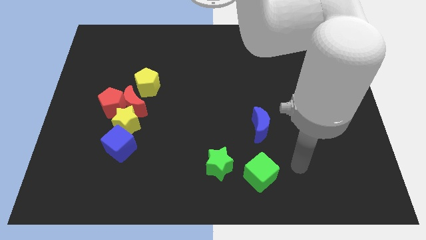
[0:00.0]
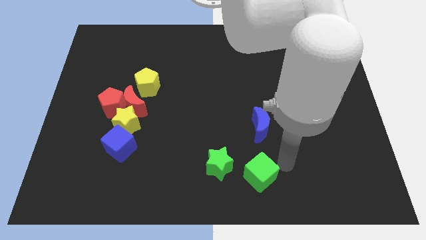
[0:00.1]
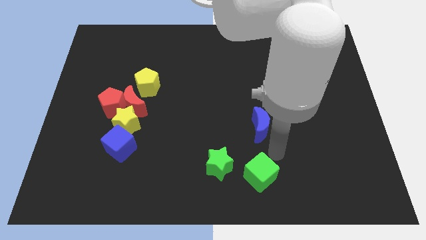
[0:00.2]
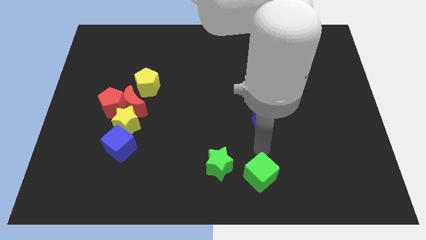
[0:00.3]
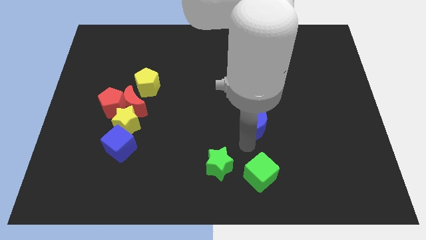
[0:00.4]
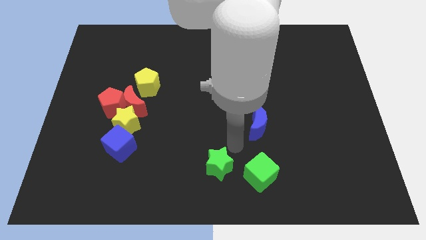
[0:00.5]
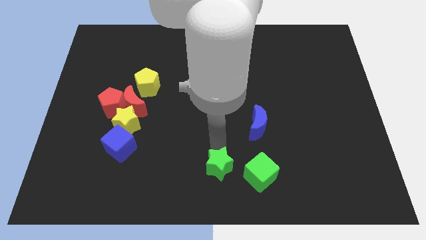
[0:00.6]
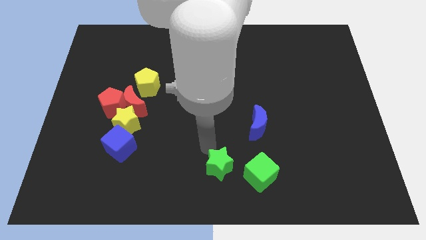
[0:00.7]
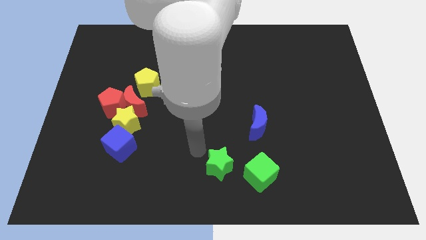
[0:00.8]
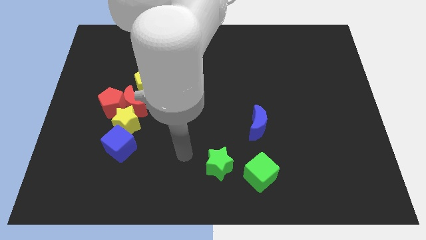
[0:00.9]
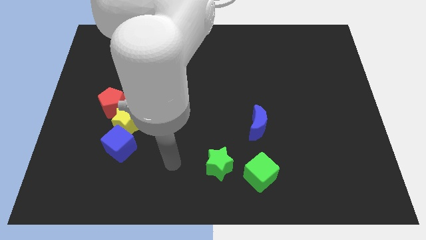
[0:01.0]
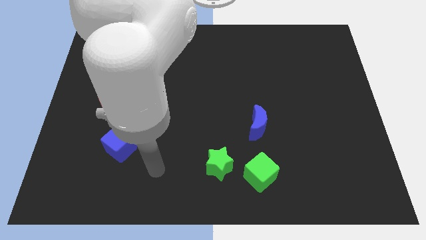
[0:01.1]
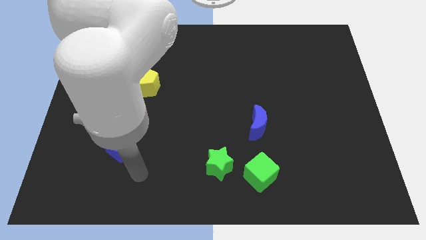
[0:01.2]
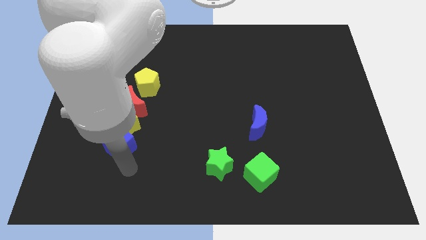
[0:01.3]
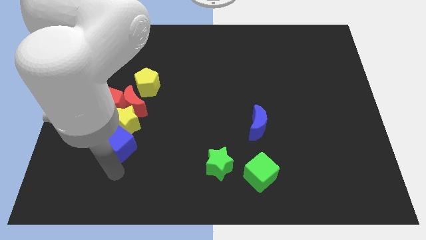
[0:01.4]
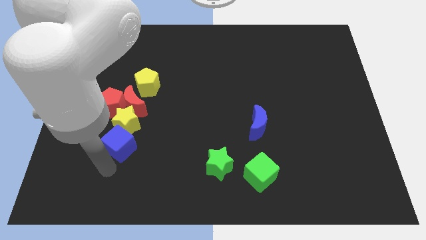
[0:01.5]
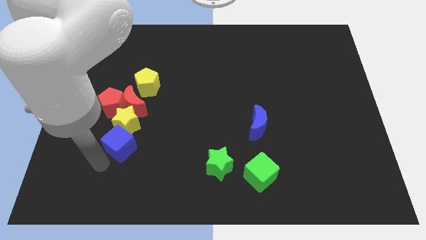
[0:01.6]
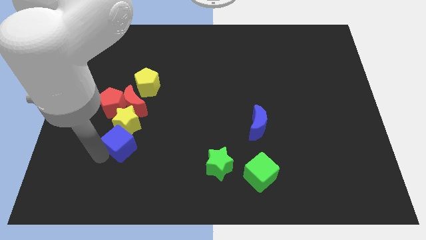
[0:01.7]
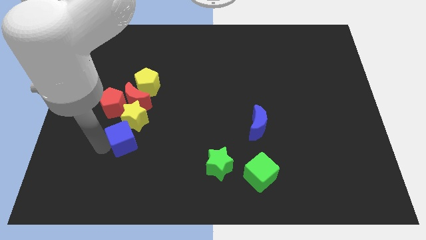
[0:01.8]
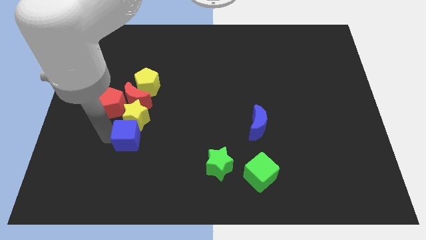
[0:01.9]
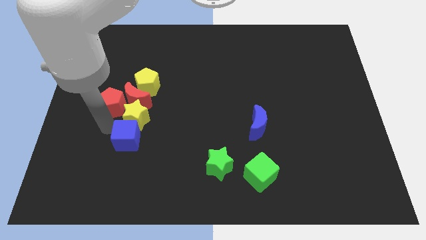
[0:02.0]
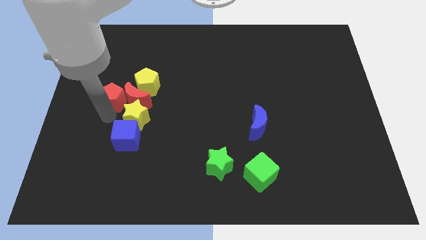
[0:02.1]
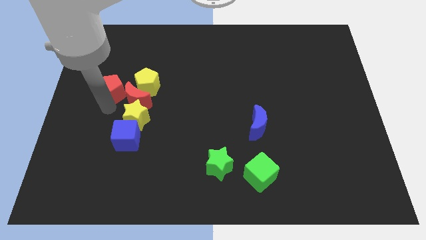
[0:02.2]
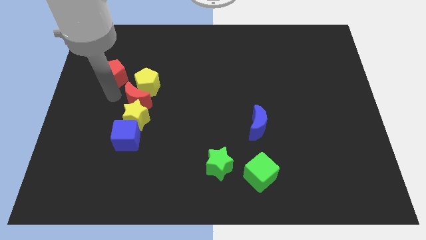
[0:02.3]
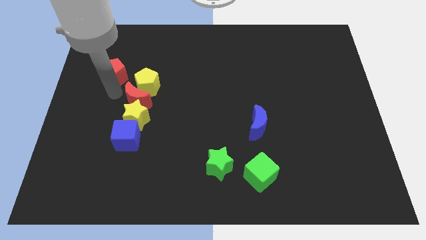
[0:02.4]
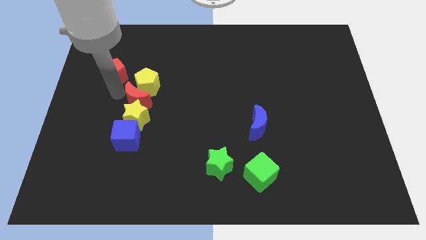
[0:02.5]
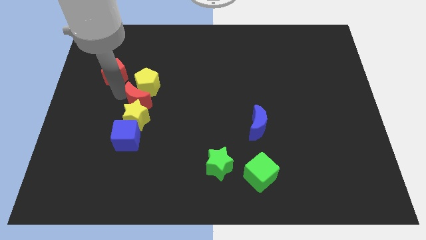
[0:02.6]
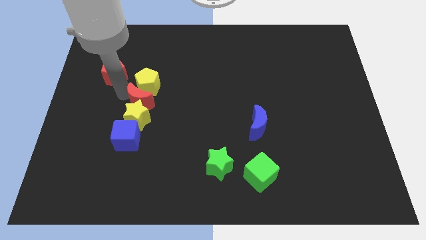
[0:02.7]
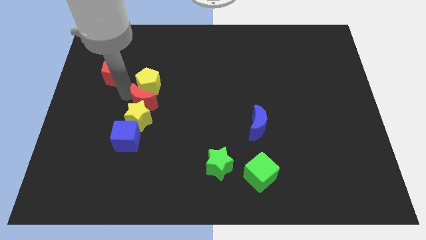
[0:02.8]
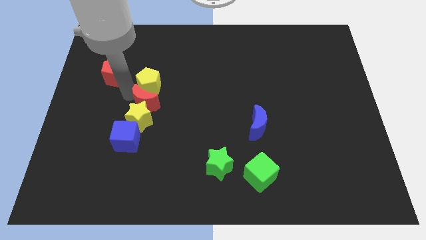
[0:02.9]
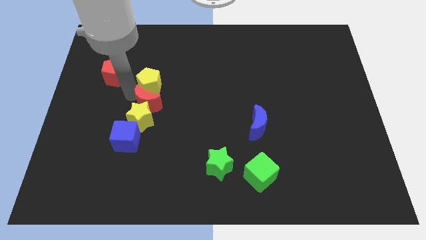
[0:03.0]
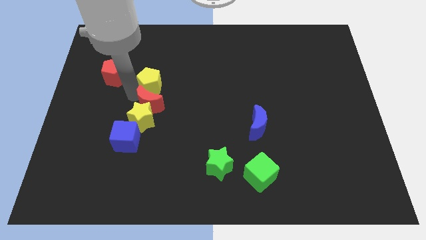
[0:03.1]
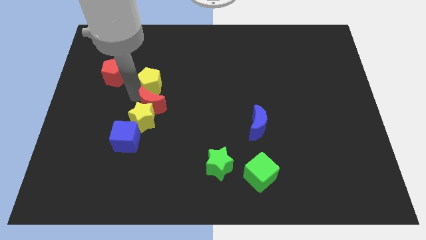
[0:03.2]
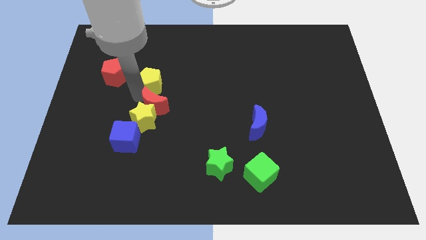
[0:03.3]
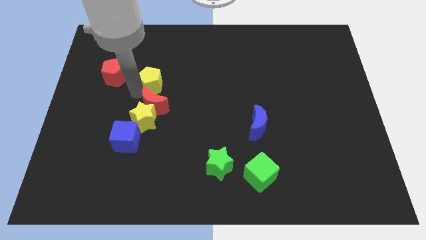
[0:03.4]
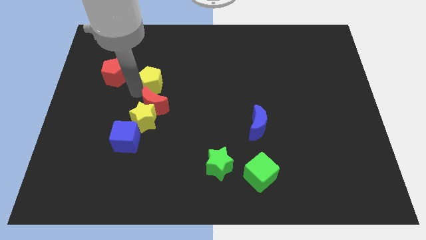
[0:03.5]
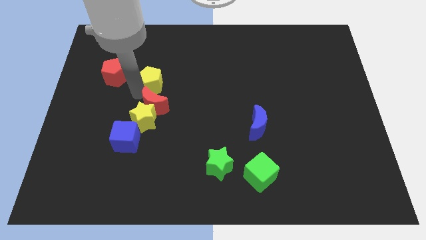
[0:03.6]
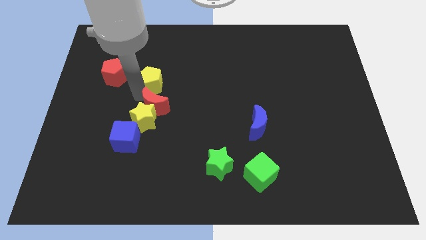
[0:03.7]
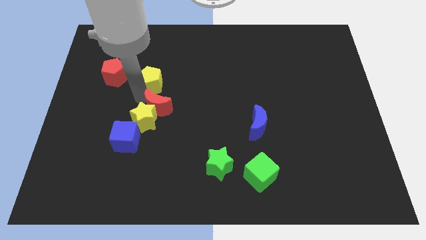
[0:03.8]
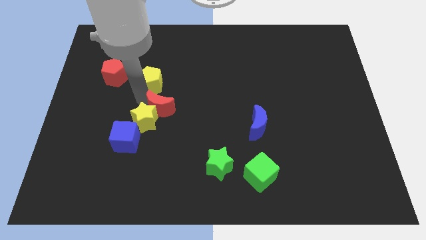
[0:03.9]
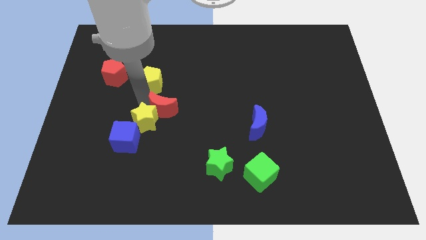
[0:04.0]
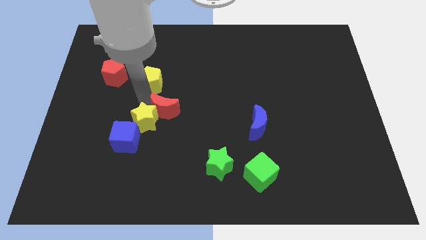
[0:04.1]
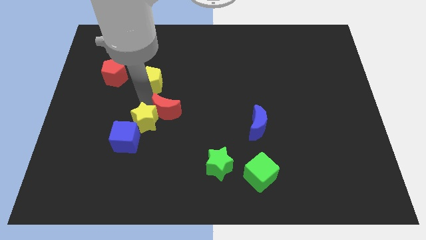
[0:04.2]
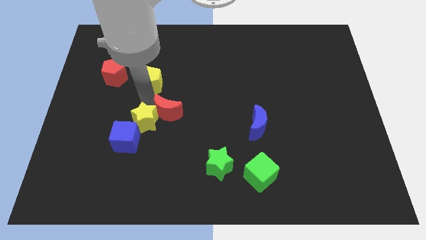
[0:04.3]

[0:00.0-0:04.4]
move the red moon away from the red pentagon, yellow star, and yellow pentagon

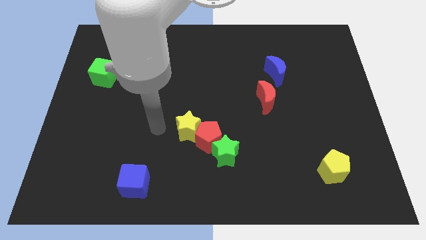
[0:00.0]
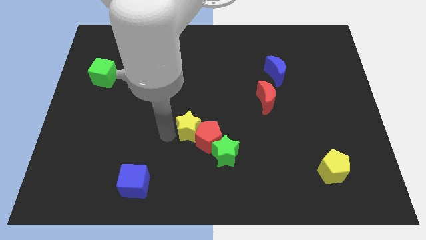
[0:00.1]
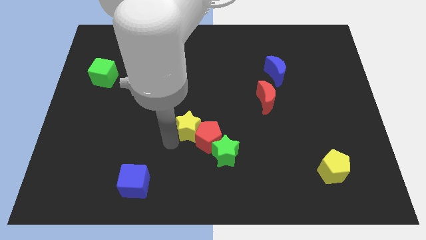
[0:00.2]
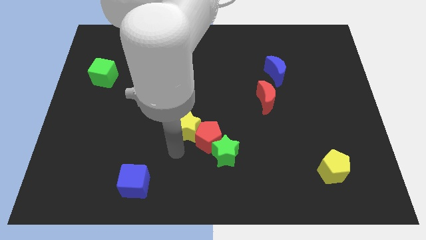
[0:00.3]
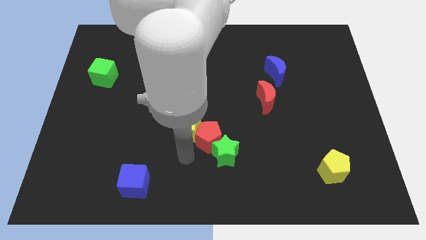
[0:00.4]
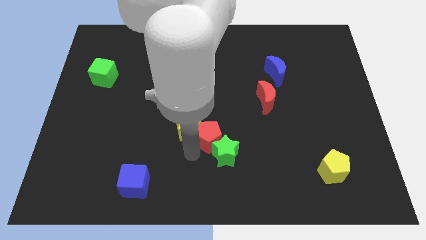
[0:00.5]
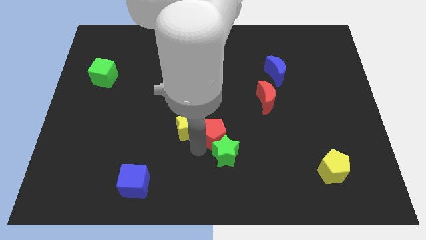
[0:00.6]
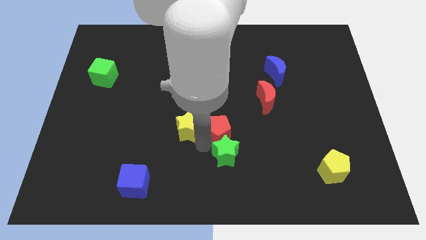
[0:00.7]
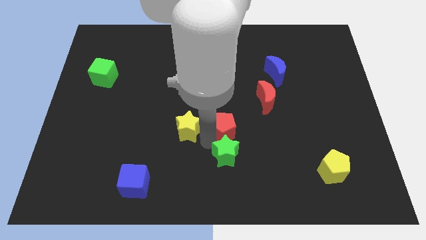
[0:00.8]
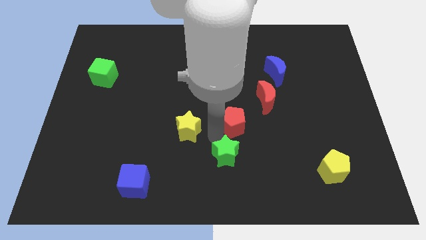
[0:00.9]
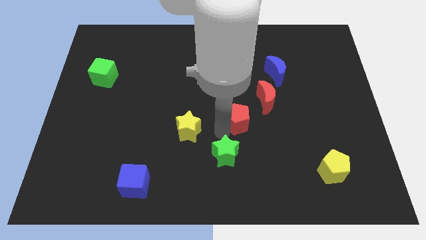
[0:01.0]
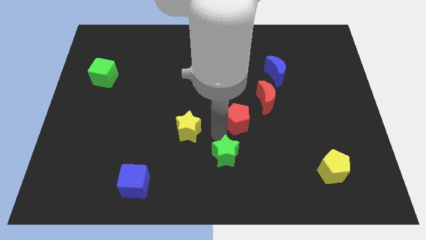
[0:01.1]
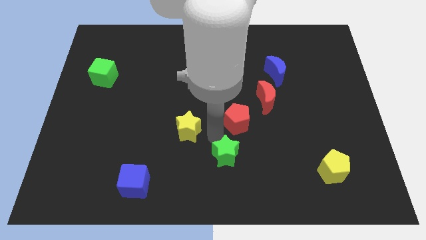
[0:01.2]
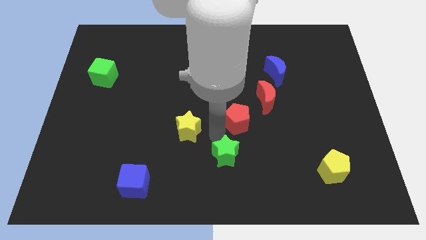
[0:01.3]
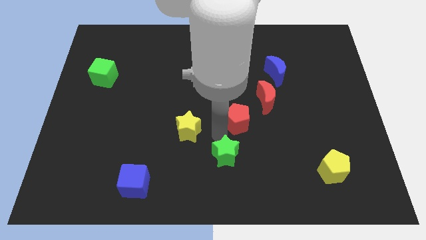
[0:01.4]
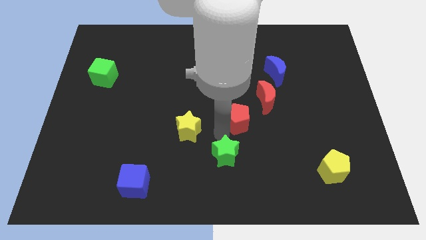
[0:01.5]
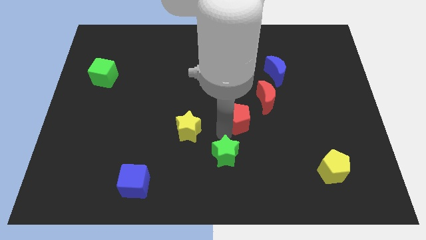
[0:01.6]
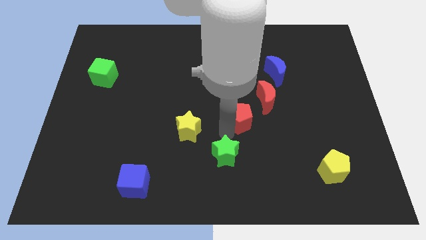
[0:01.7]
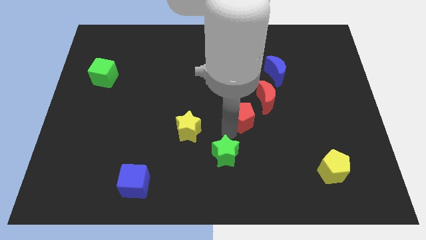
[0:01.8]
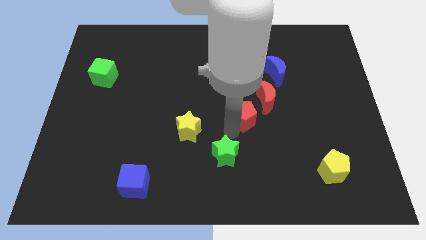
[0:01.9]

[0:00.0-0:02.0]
move the red pentagon away from the green star and yellow star

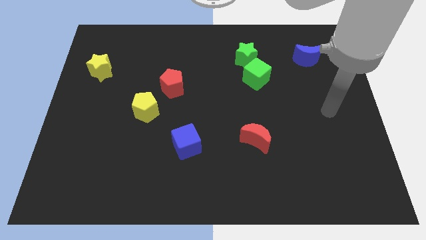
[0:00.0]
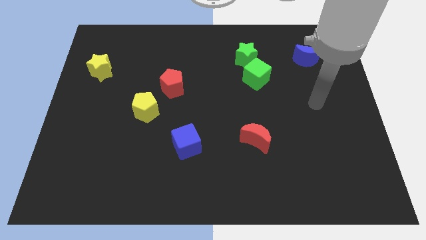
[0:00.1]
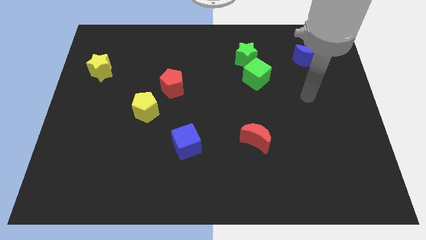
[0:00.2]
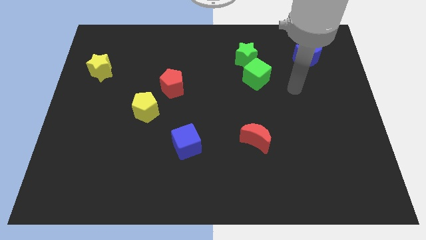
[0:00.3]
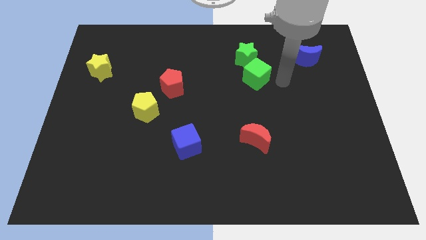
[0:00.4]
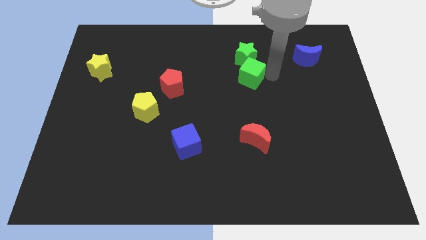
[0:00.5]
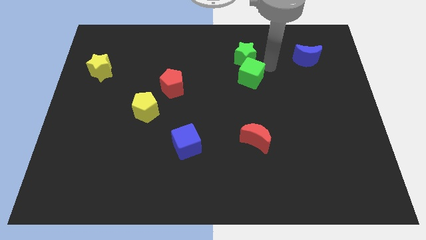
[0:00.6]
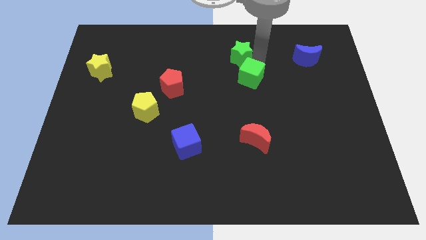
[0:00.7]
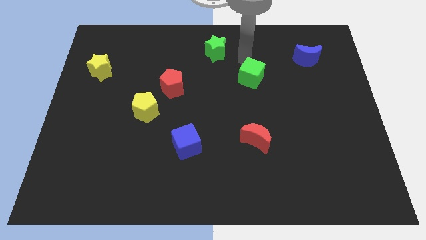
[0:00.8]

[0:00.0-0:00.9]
separate the green cube from the green star

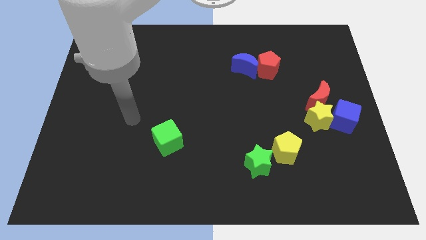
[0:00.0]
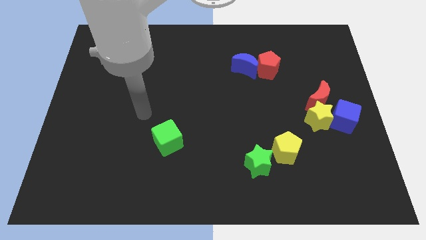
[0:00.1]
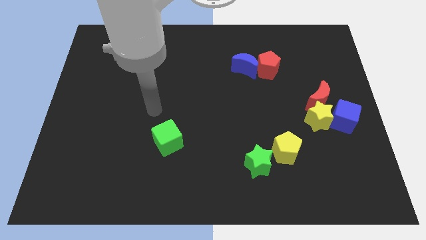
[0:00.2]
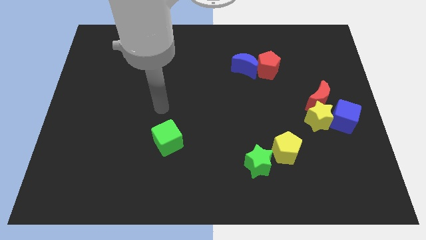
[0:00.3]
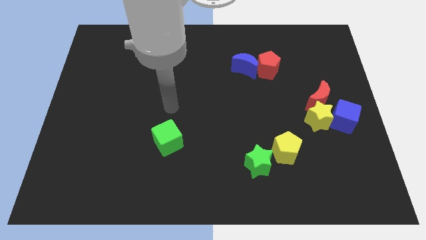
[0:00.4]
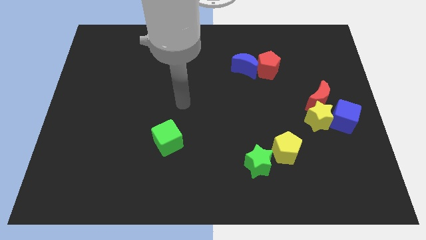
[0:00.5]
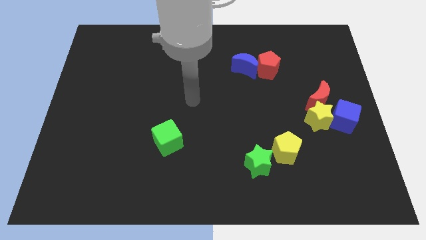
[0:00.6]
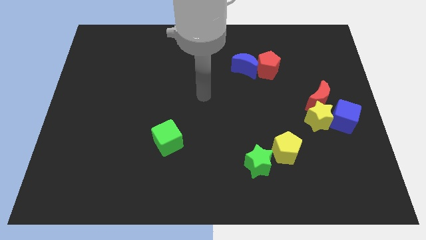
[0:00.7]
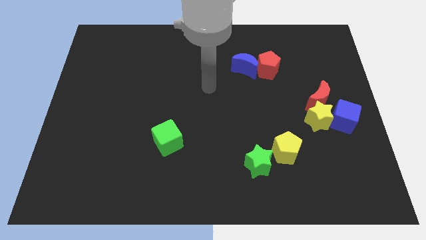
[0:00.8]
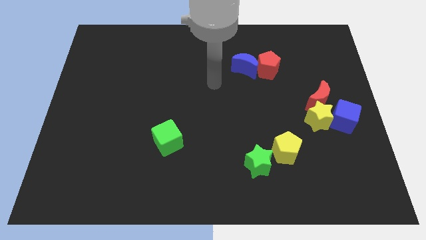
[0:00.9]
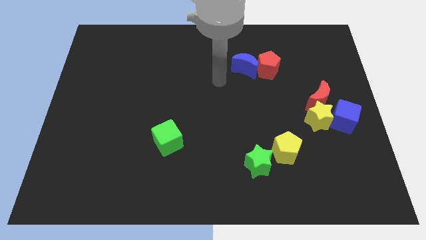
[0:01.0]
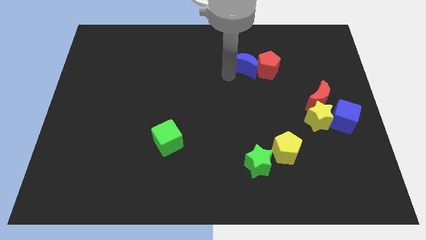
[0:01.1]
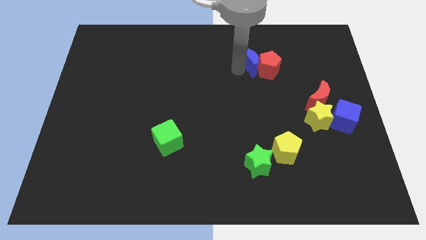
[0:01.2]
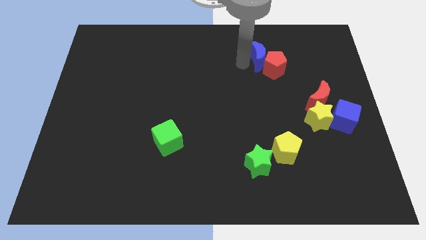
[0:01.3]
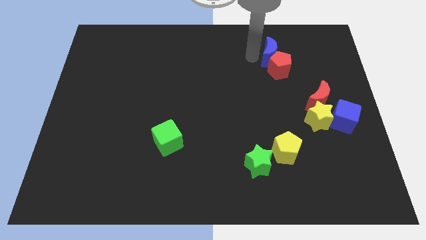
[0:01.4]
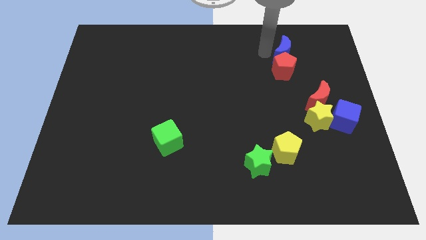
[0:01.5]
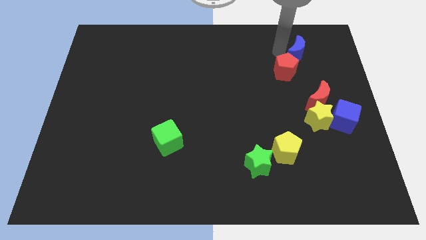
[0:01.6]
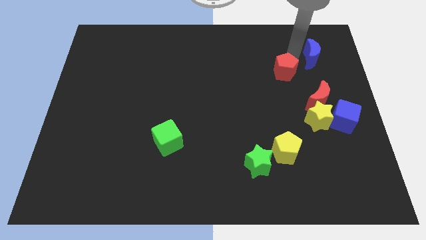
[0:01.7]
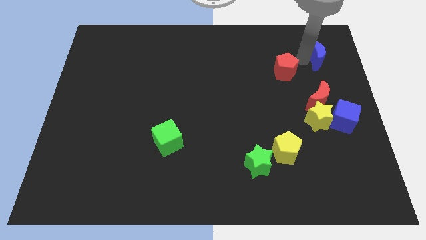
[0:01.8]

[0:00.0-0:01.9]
move the red pentagon away from the blue moon
